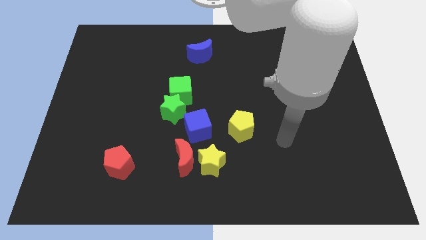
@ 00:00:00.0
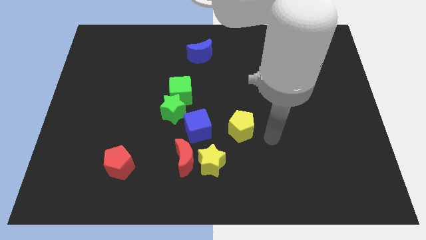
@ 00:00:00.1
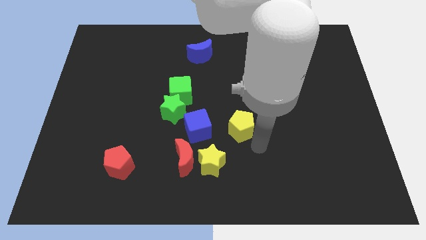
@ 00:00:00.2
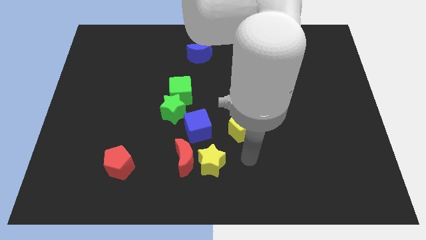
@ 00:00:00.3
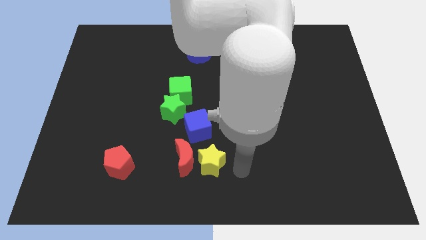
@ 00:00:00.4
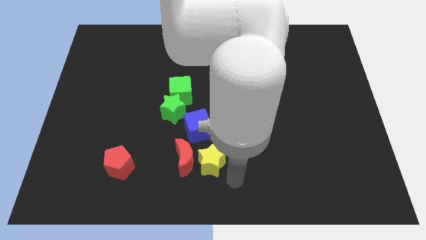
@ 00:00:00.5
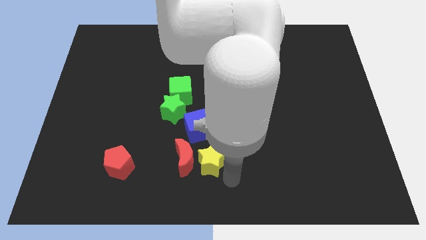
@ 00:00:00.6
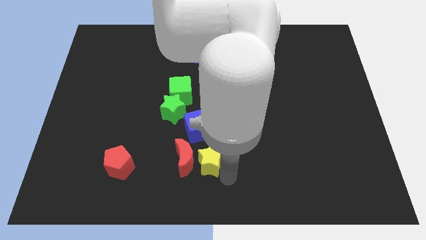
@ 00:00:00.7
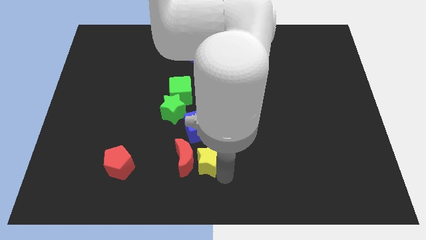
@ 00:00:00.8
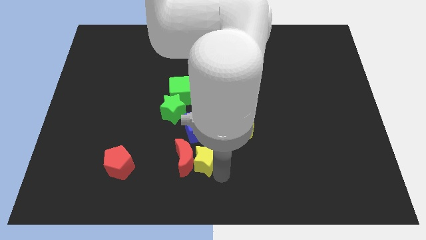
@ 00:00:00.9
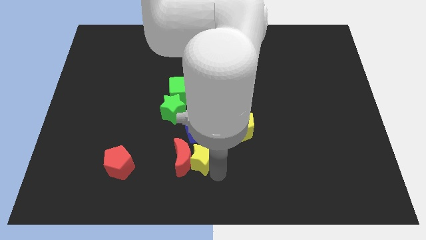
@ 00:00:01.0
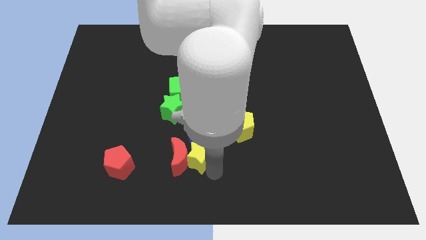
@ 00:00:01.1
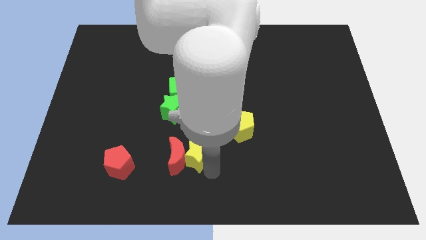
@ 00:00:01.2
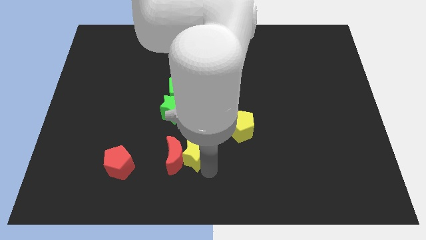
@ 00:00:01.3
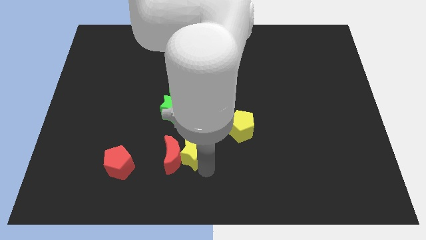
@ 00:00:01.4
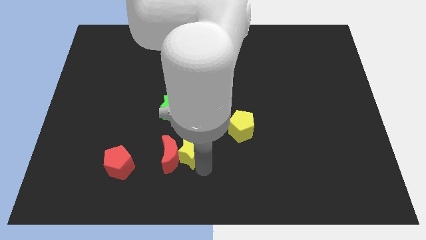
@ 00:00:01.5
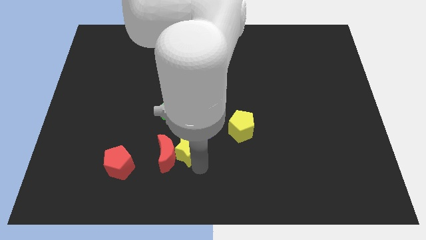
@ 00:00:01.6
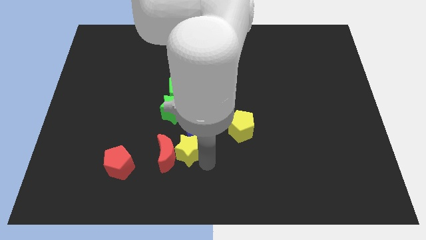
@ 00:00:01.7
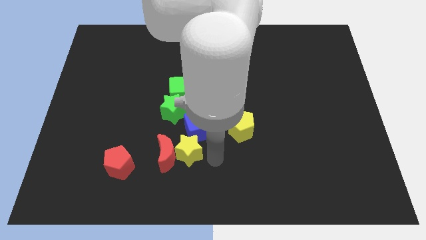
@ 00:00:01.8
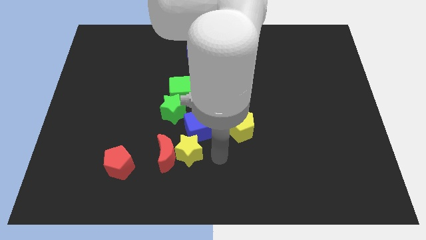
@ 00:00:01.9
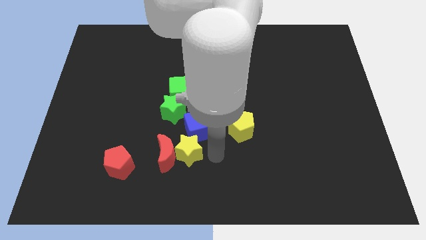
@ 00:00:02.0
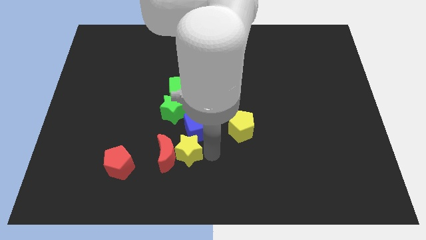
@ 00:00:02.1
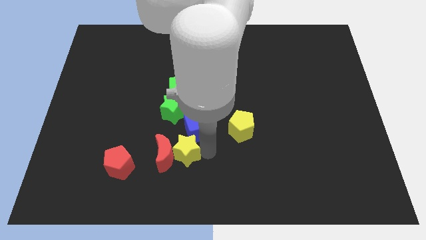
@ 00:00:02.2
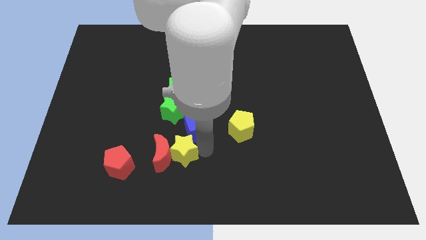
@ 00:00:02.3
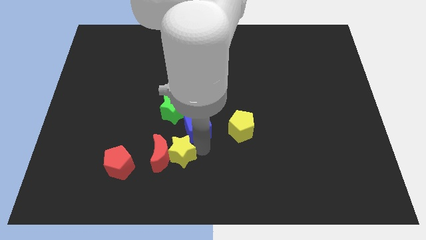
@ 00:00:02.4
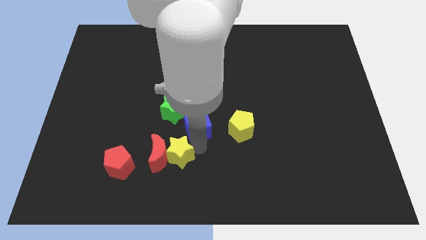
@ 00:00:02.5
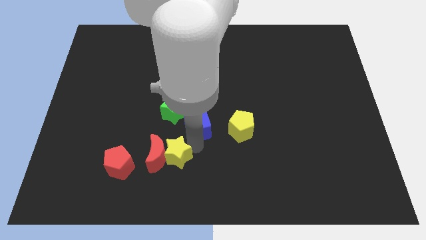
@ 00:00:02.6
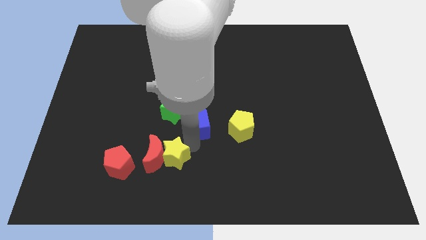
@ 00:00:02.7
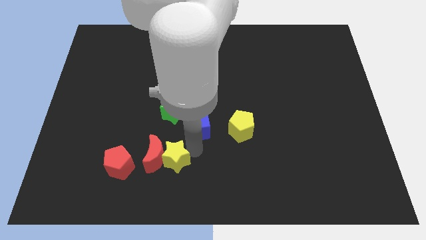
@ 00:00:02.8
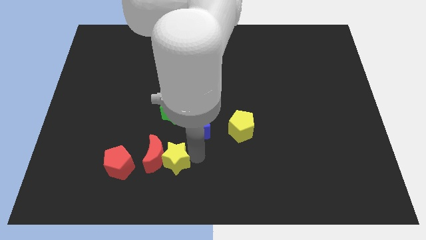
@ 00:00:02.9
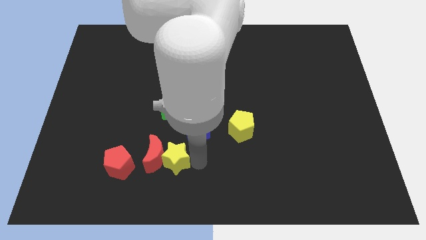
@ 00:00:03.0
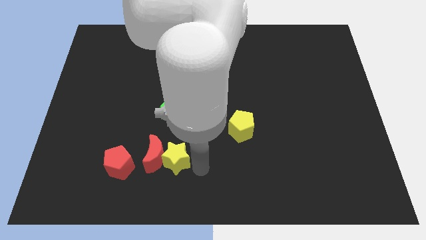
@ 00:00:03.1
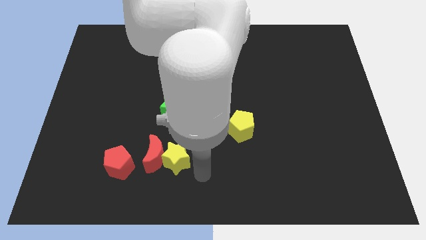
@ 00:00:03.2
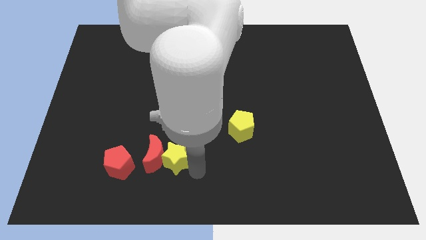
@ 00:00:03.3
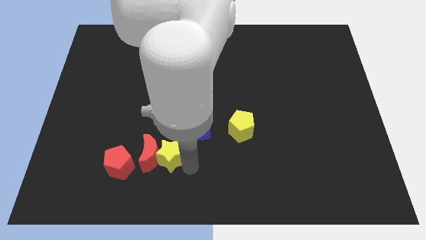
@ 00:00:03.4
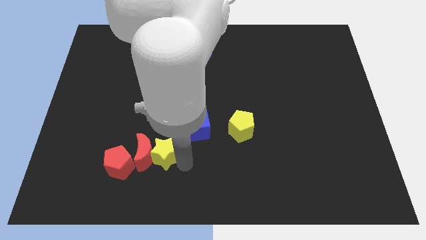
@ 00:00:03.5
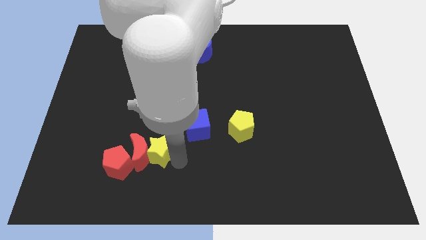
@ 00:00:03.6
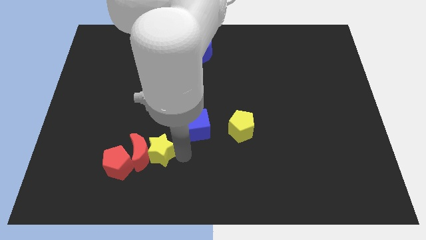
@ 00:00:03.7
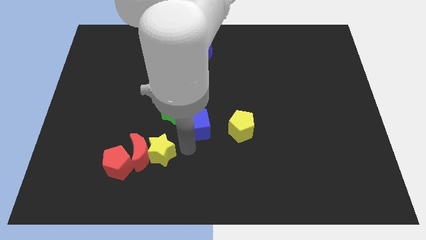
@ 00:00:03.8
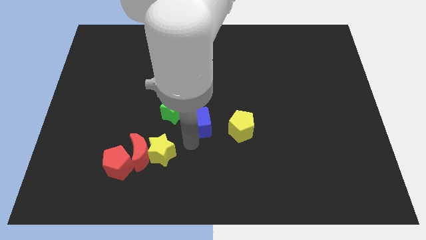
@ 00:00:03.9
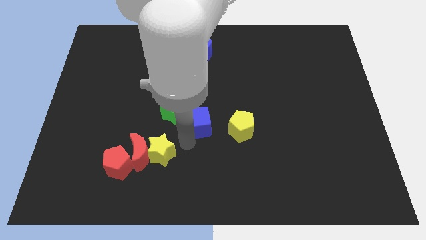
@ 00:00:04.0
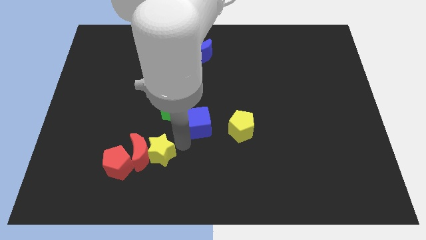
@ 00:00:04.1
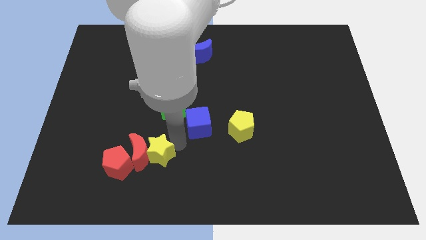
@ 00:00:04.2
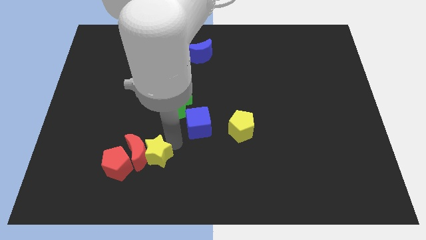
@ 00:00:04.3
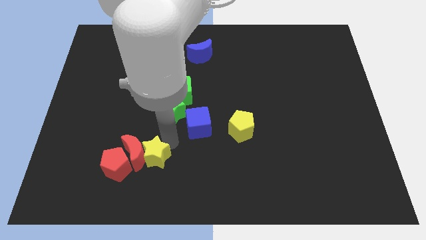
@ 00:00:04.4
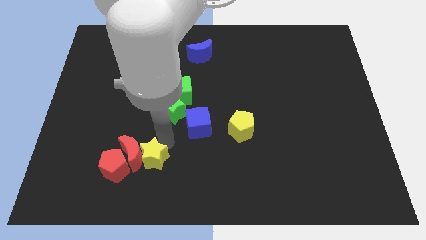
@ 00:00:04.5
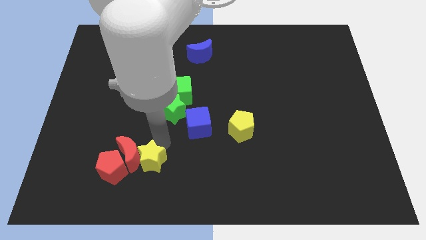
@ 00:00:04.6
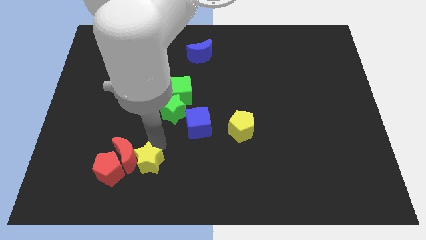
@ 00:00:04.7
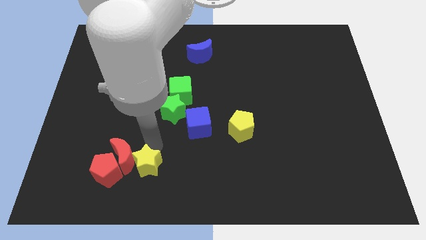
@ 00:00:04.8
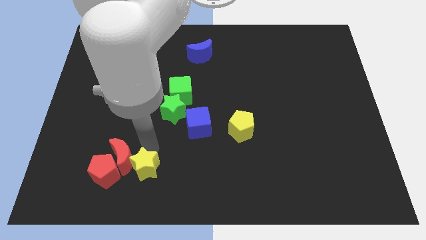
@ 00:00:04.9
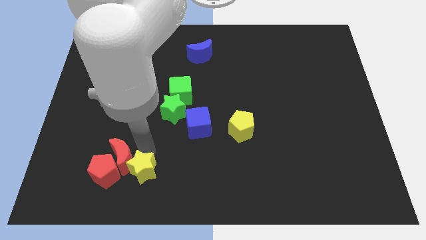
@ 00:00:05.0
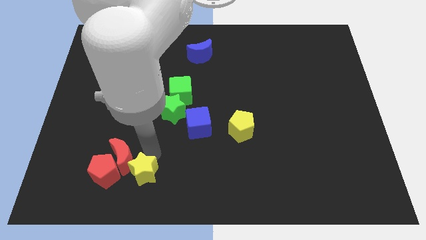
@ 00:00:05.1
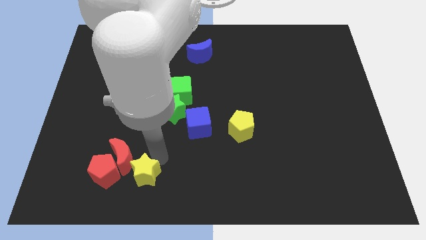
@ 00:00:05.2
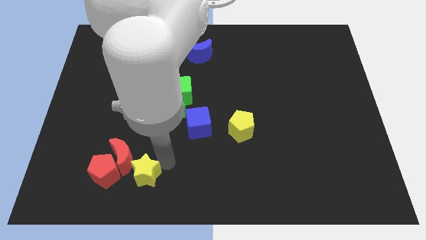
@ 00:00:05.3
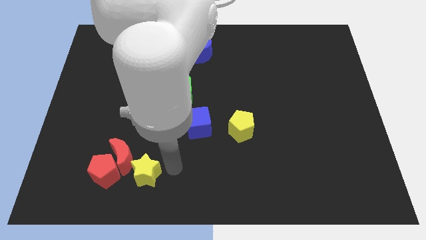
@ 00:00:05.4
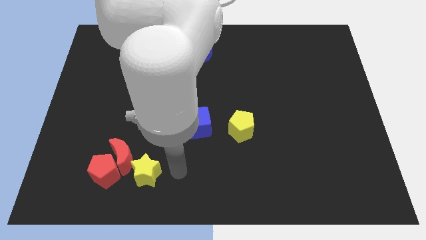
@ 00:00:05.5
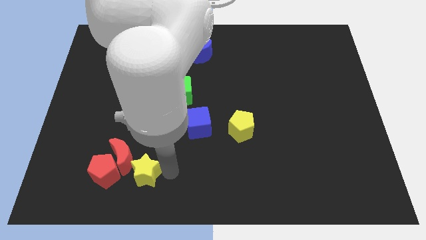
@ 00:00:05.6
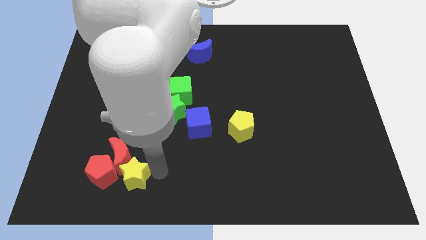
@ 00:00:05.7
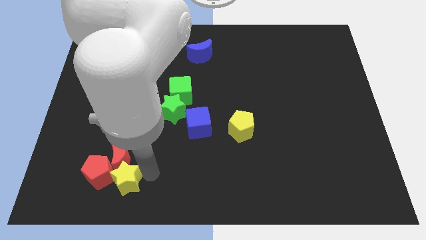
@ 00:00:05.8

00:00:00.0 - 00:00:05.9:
slide the yellow star towards the red pentagon

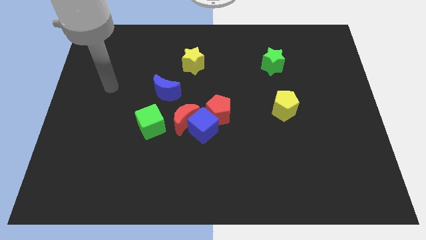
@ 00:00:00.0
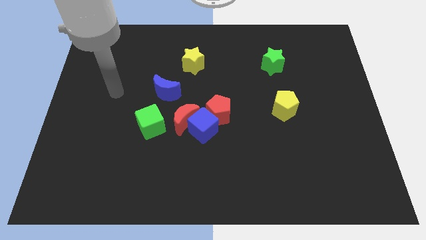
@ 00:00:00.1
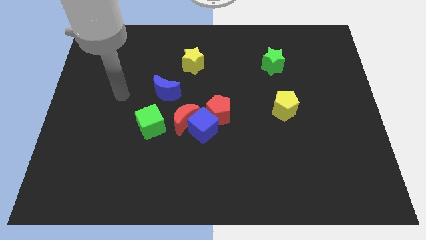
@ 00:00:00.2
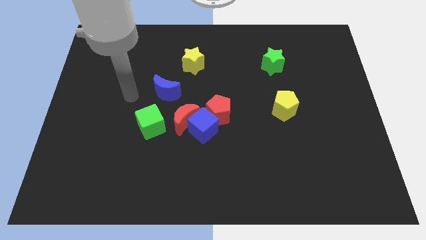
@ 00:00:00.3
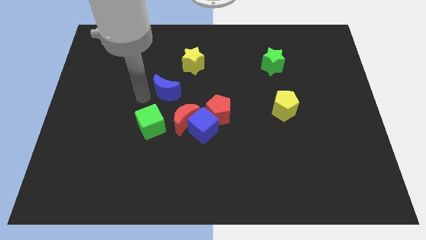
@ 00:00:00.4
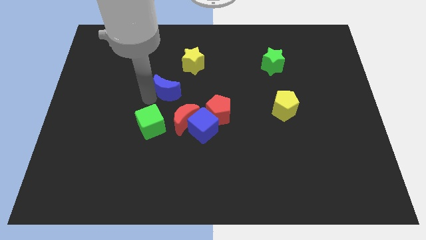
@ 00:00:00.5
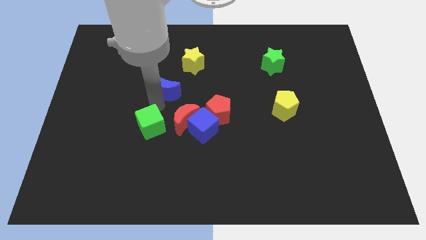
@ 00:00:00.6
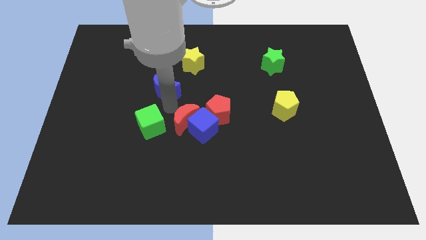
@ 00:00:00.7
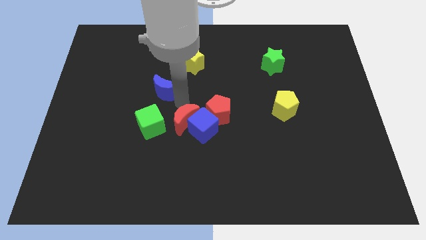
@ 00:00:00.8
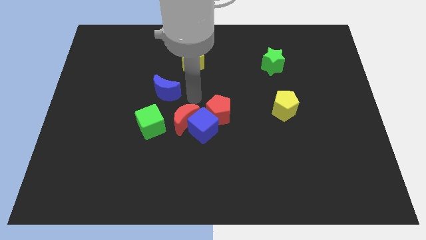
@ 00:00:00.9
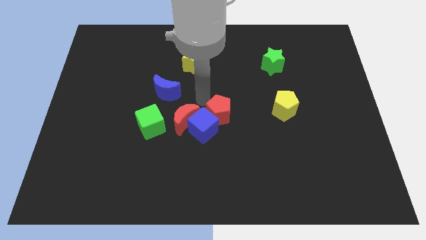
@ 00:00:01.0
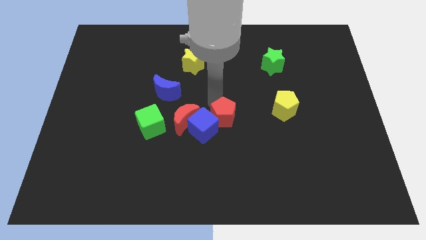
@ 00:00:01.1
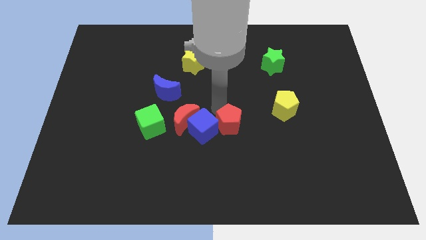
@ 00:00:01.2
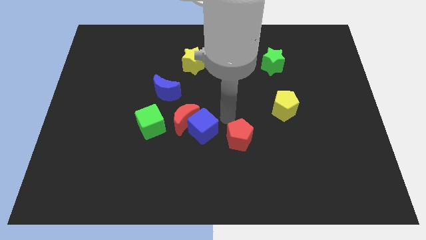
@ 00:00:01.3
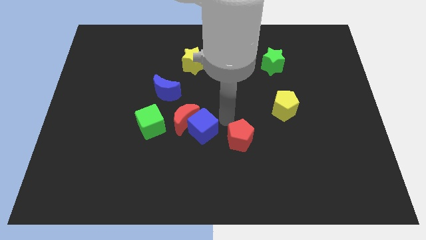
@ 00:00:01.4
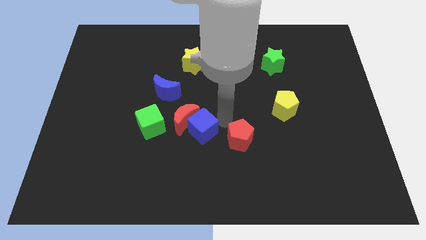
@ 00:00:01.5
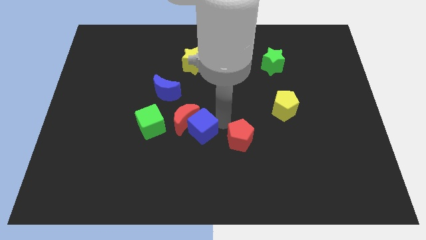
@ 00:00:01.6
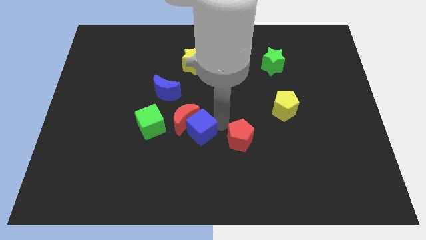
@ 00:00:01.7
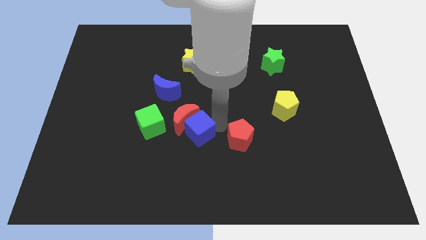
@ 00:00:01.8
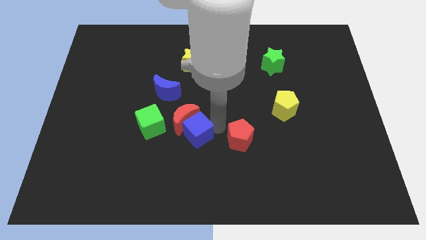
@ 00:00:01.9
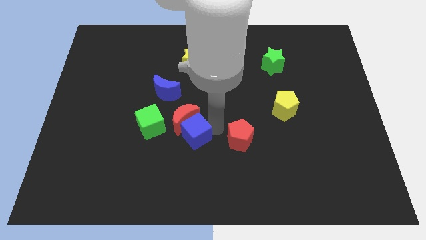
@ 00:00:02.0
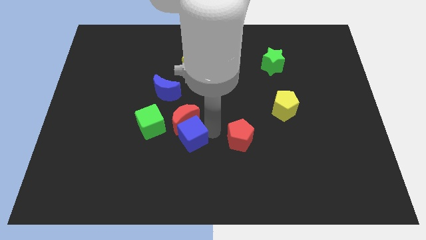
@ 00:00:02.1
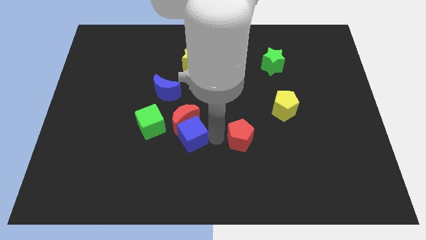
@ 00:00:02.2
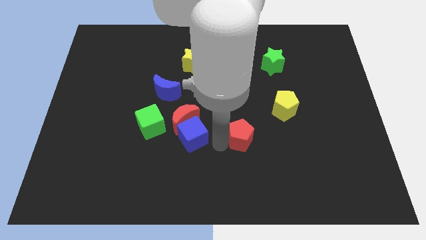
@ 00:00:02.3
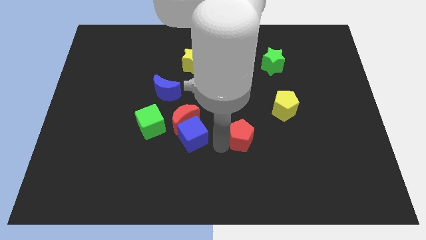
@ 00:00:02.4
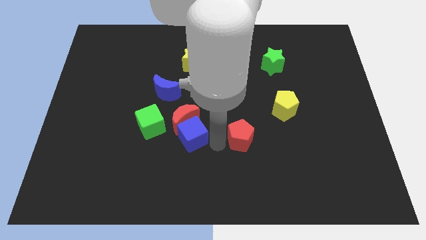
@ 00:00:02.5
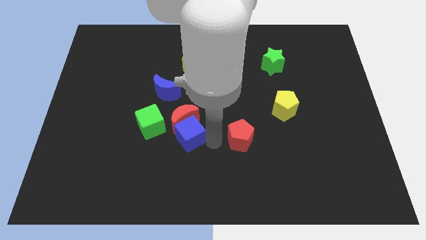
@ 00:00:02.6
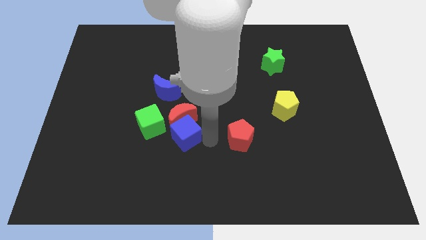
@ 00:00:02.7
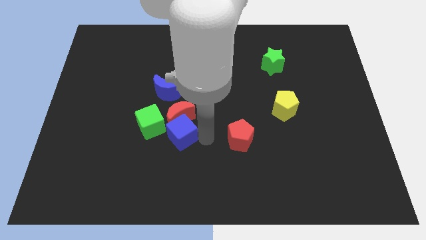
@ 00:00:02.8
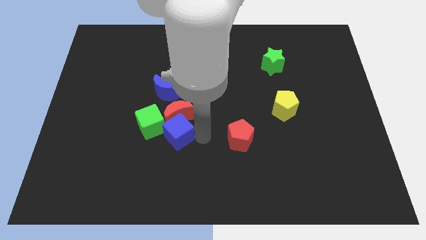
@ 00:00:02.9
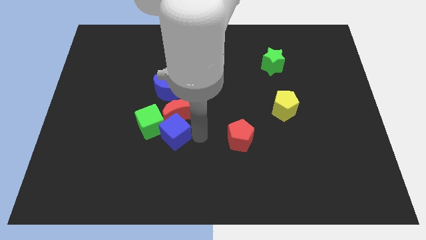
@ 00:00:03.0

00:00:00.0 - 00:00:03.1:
push the blue cube close to the green cube
